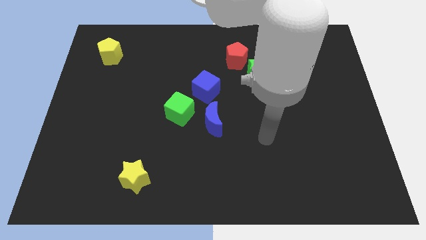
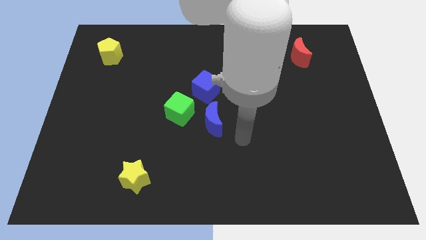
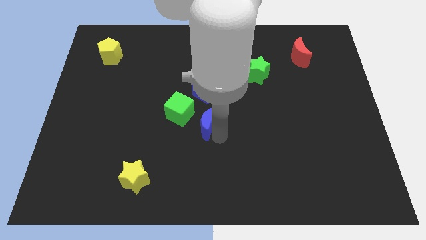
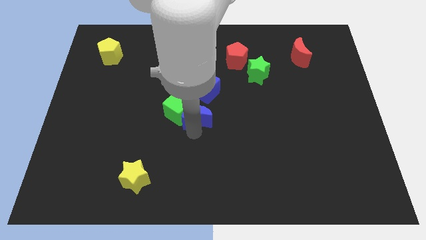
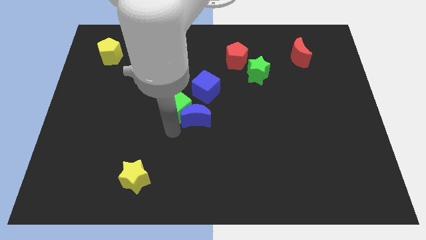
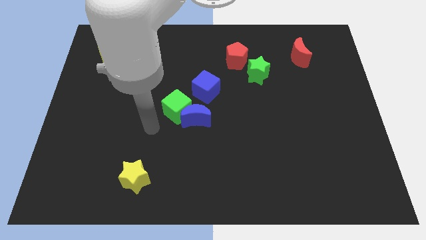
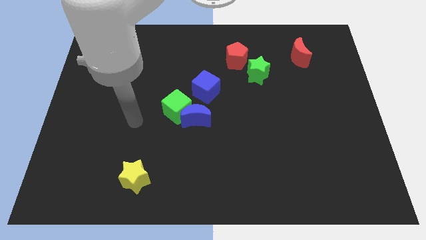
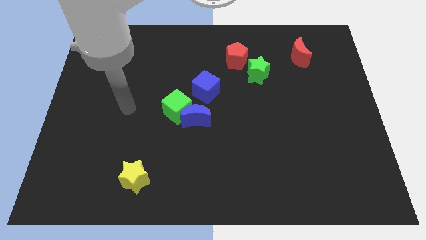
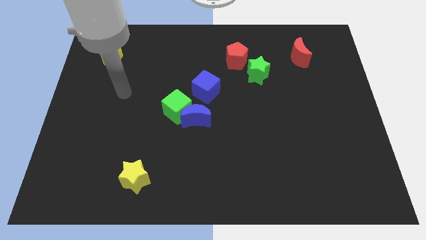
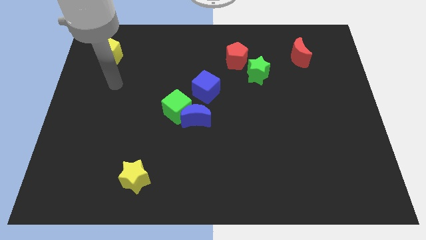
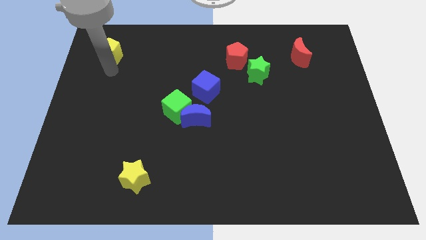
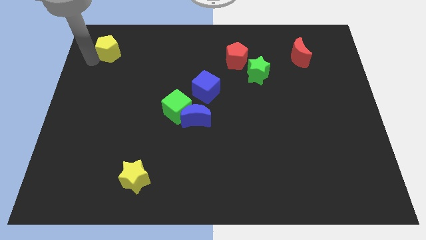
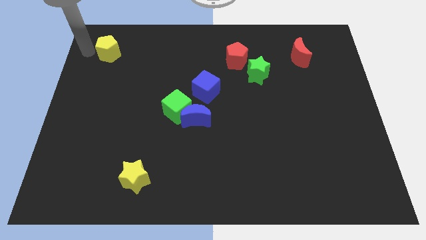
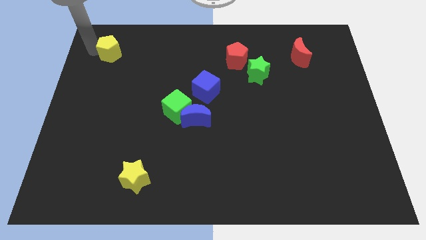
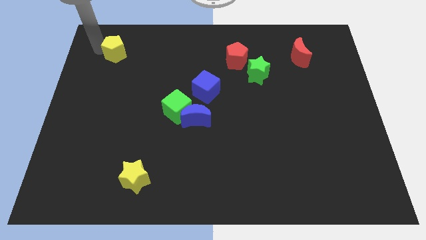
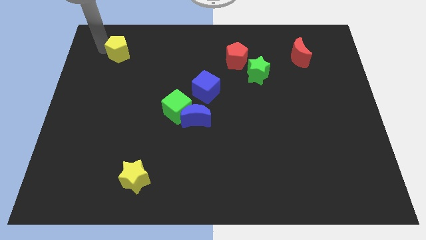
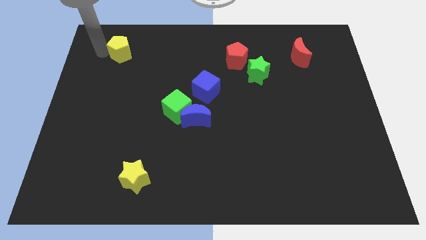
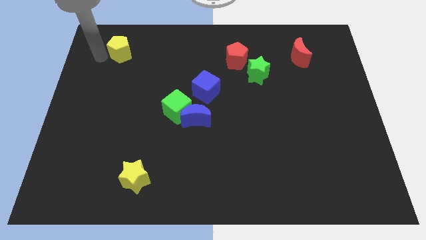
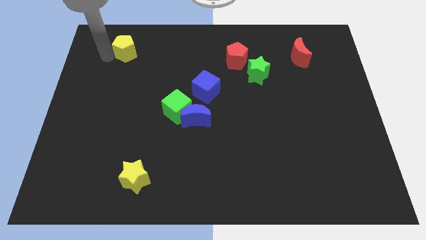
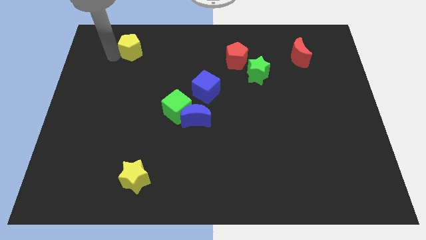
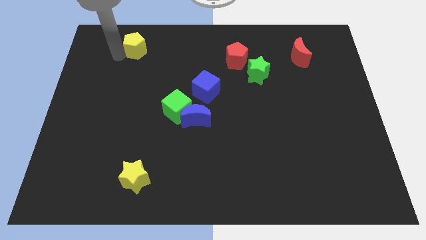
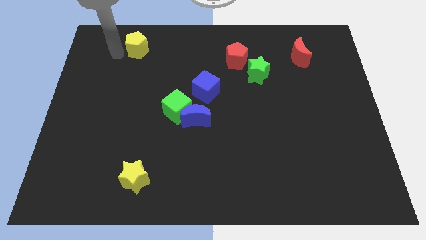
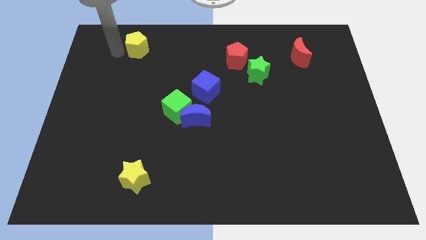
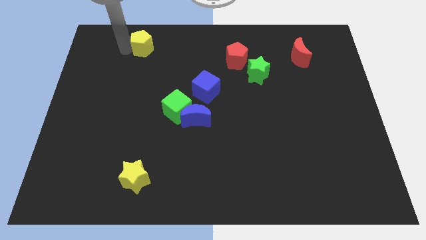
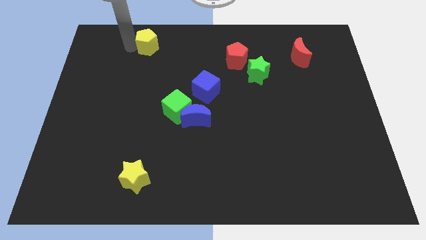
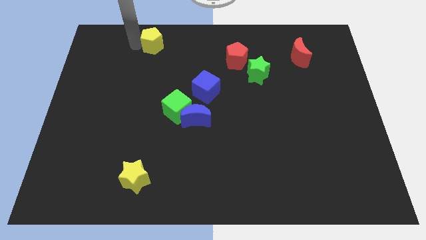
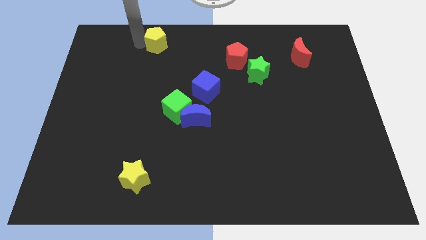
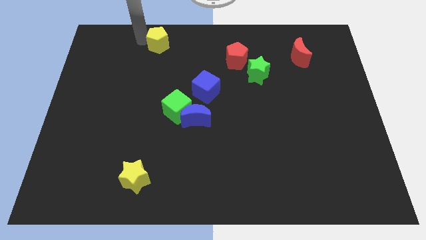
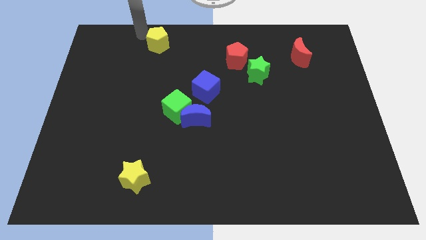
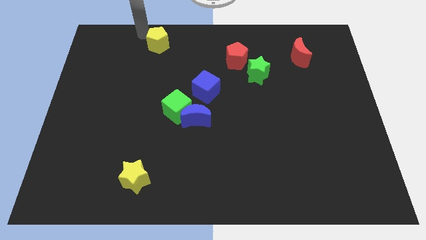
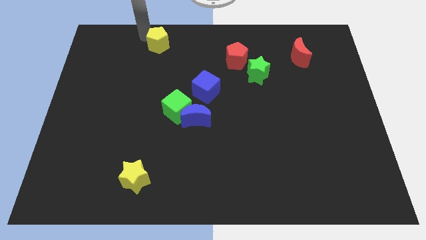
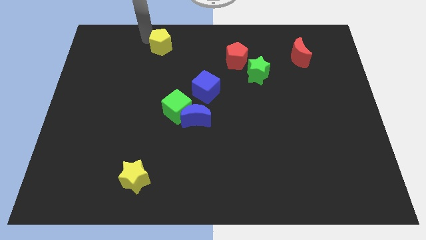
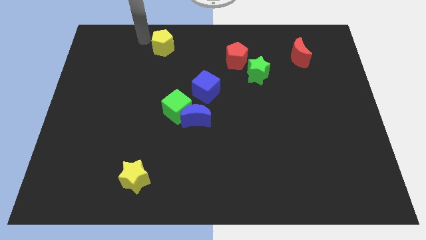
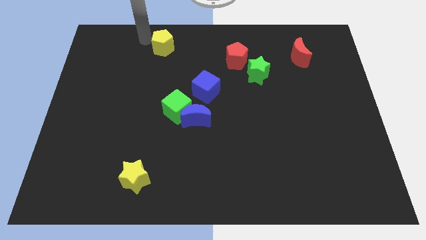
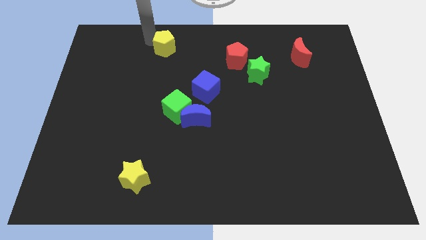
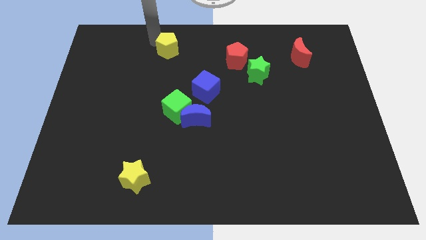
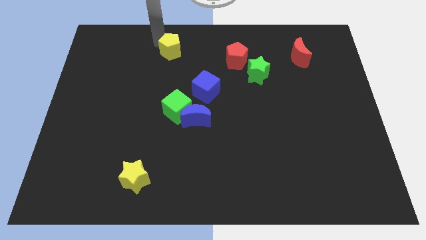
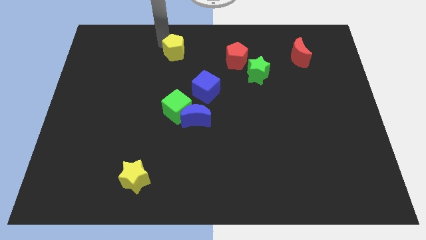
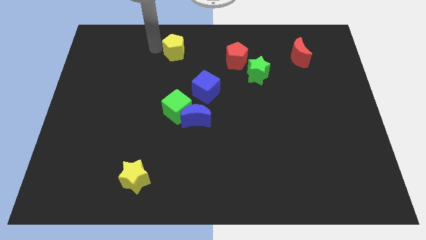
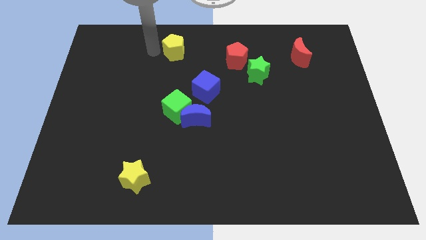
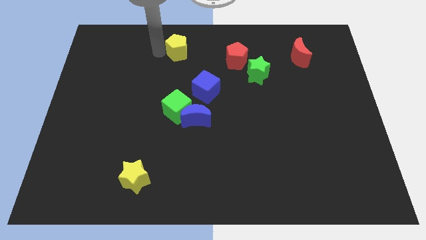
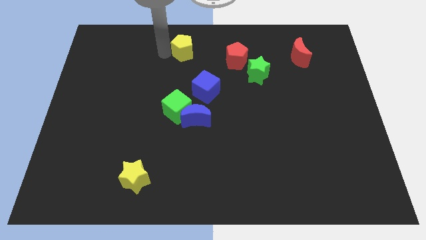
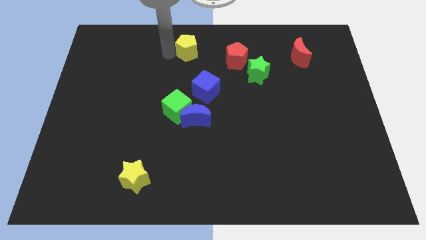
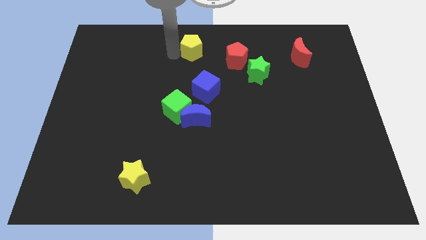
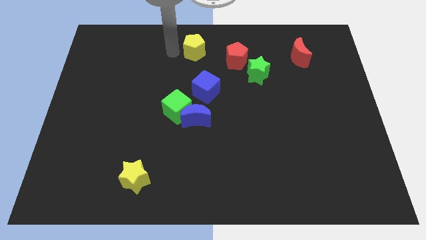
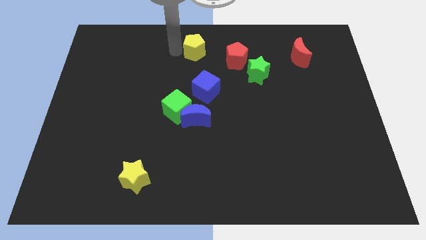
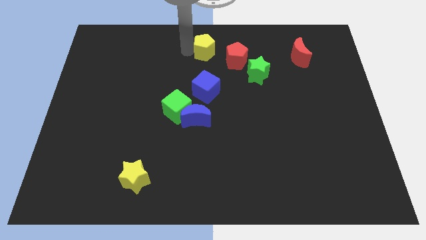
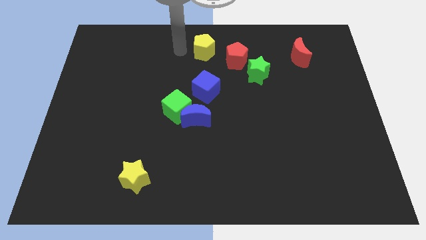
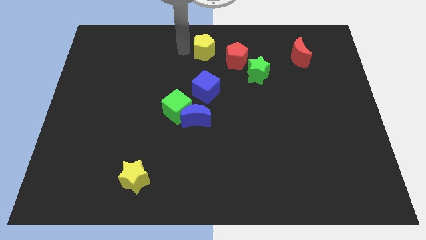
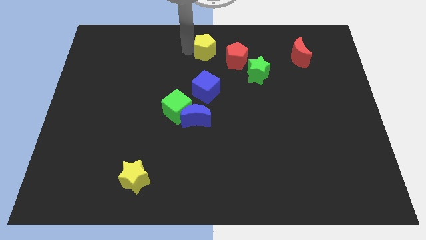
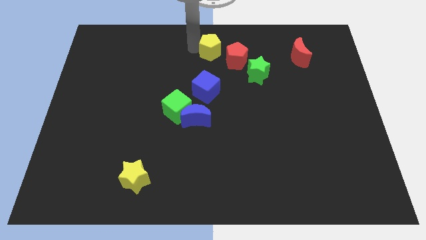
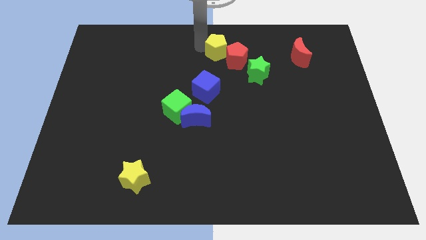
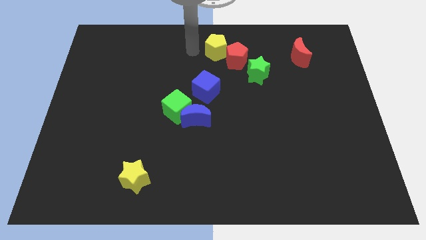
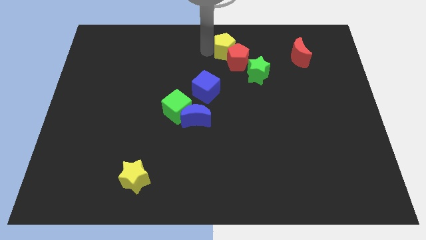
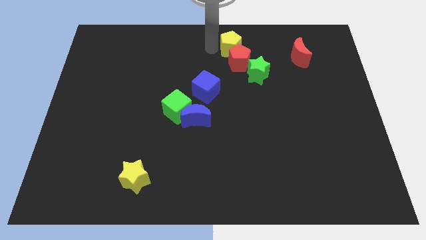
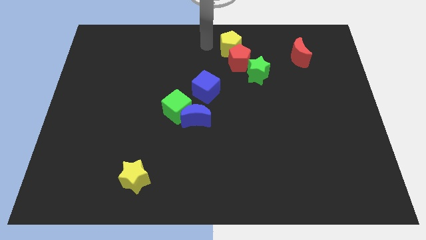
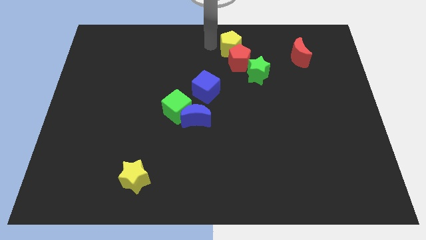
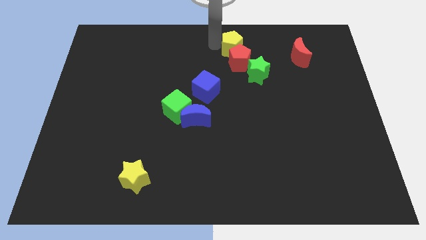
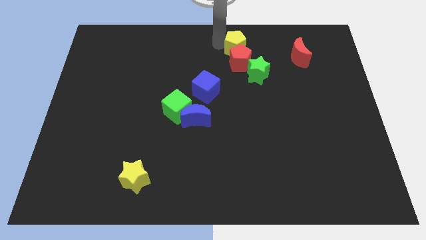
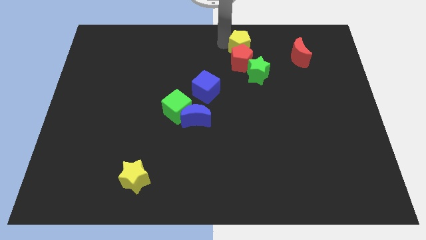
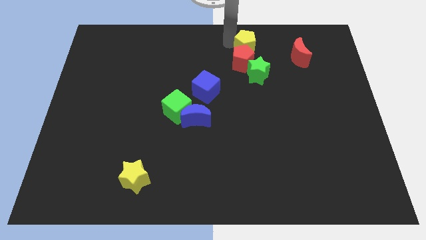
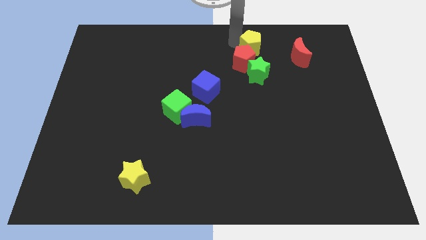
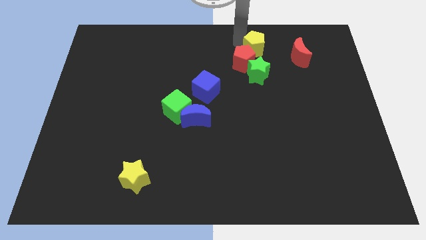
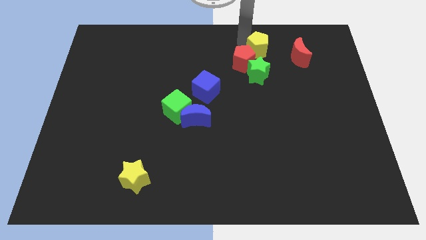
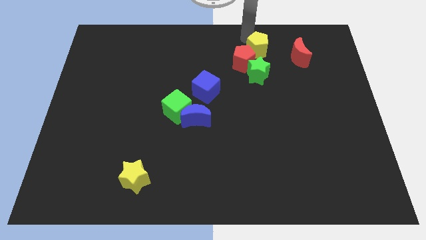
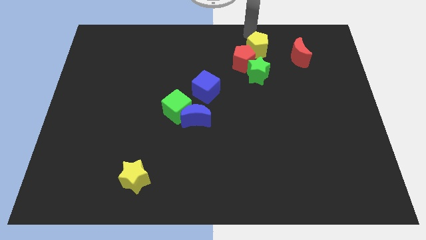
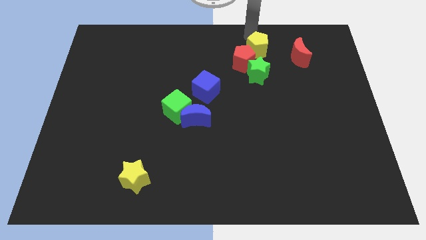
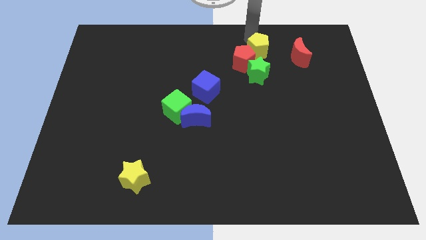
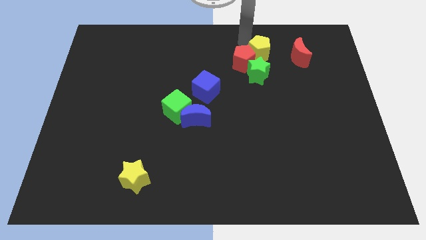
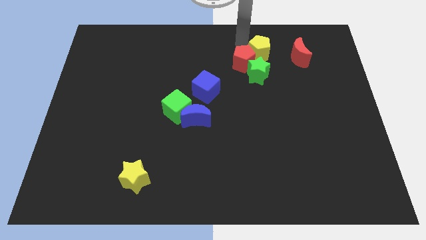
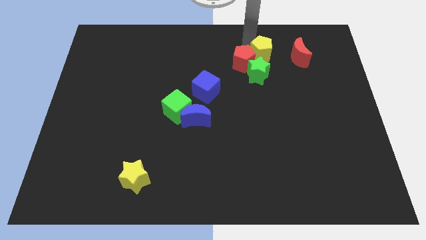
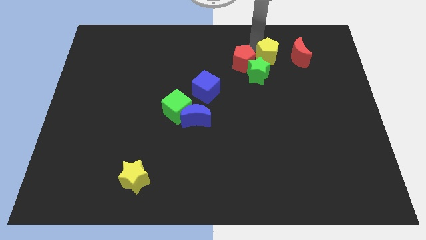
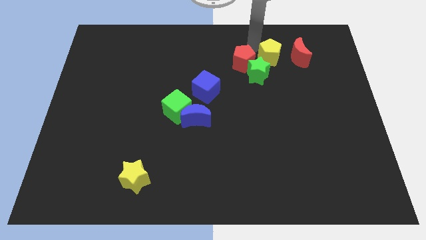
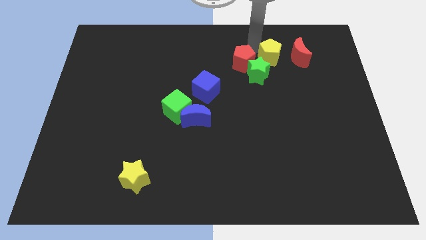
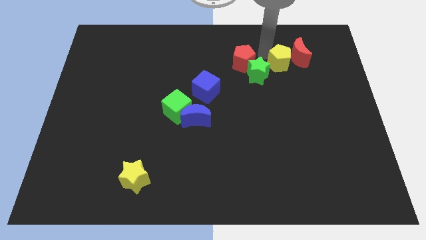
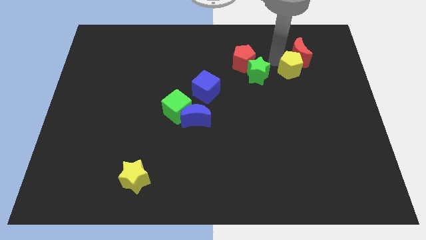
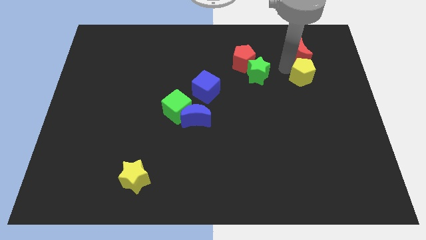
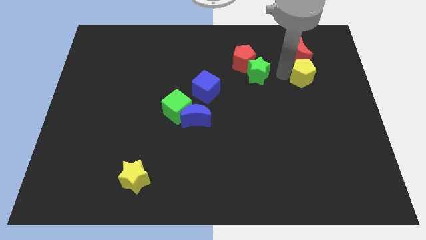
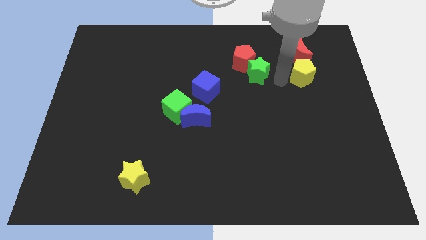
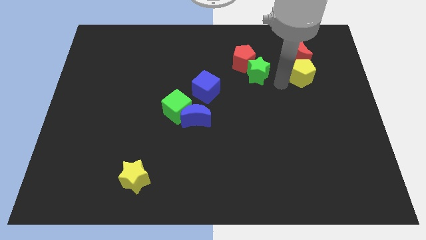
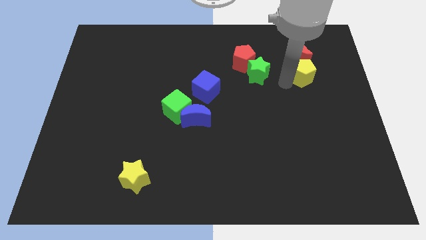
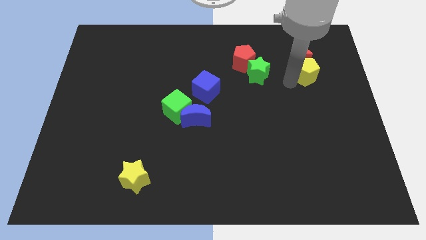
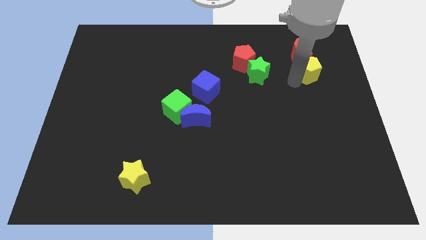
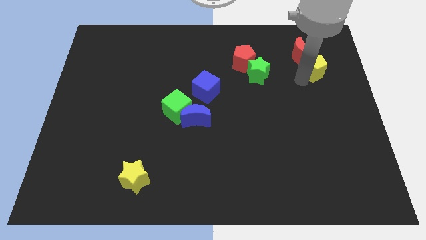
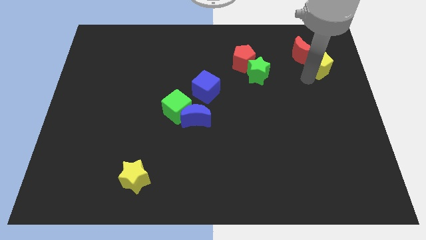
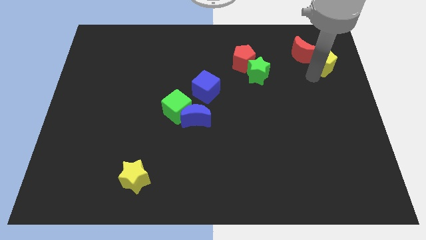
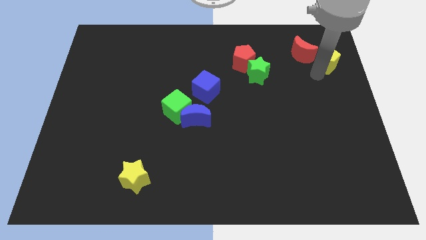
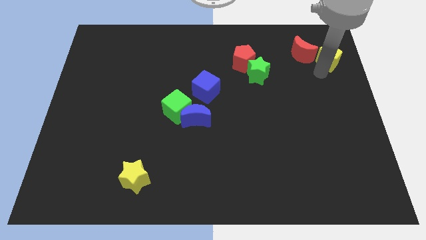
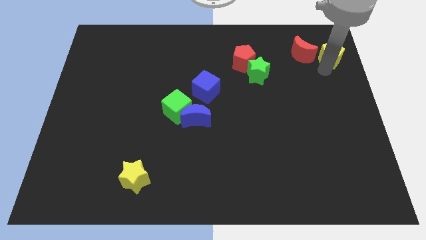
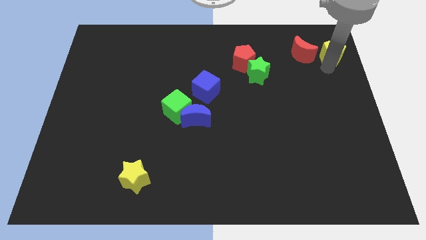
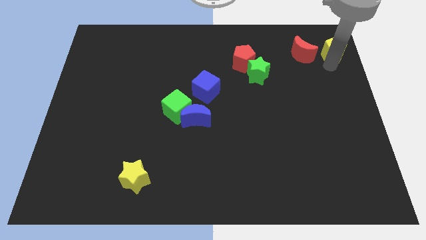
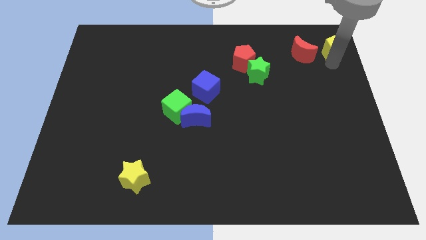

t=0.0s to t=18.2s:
move the yellow pentagon to the top right
